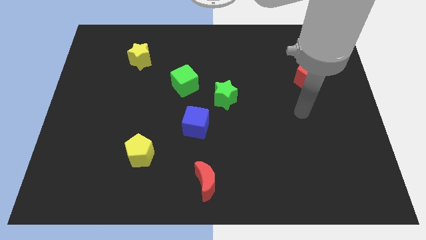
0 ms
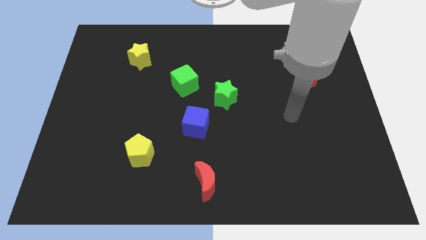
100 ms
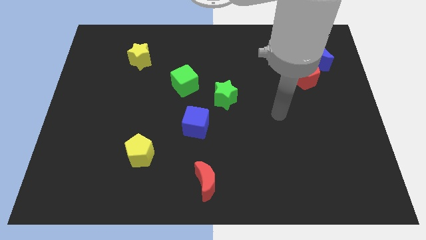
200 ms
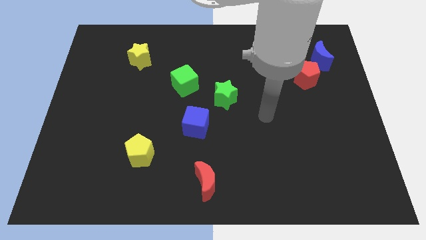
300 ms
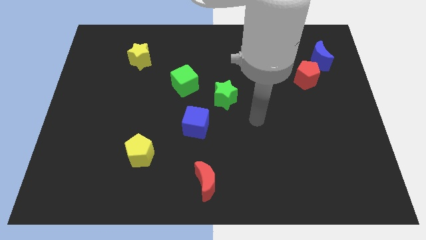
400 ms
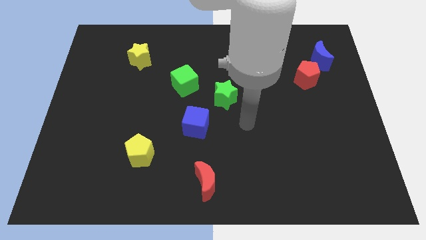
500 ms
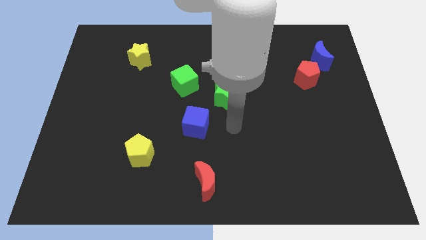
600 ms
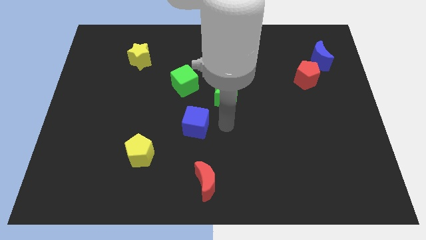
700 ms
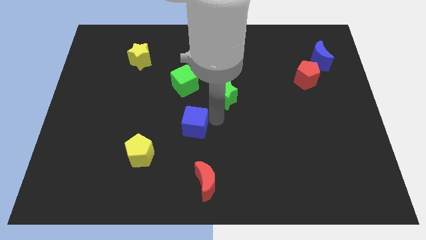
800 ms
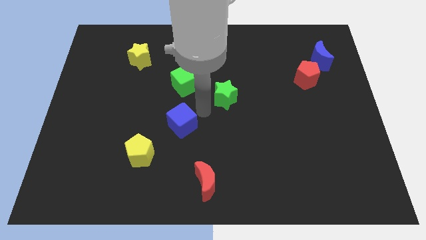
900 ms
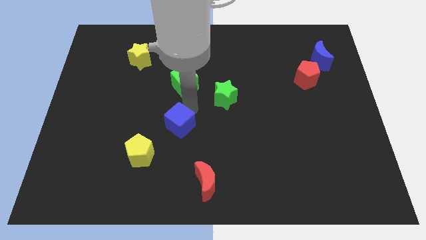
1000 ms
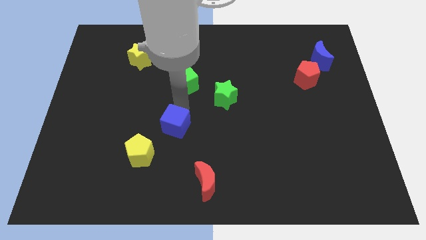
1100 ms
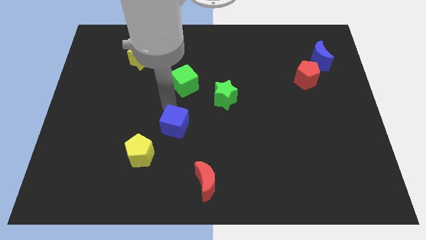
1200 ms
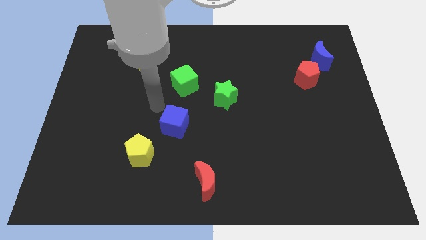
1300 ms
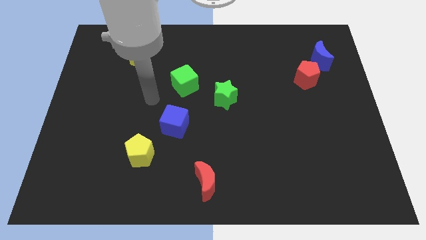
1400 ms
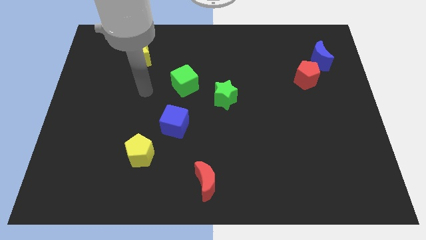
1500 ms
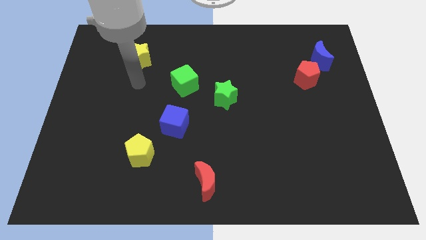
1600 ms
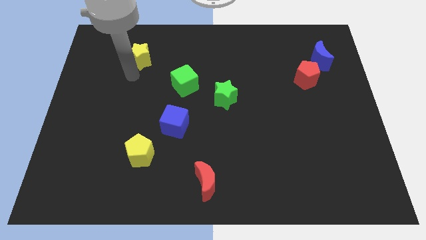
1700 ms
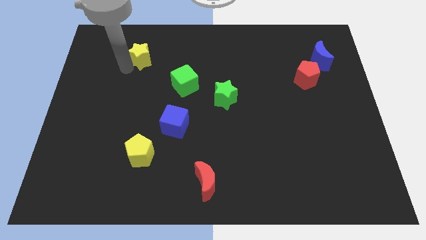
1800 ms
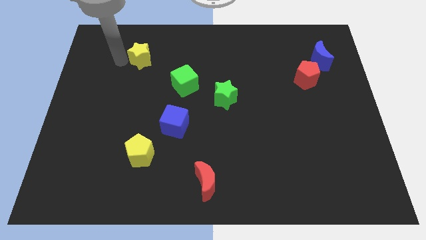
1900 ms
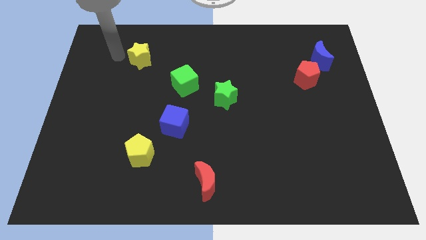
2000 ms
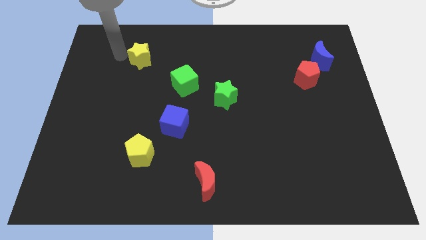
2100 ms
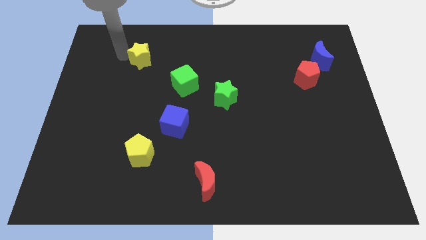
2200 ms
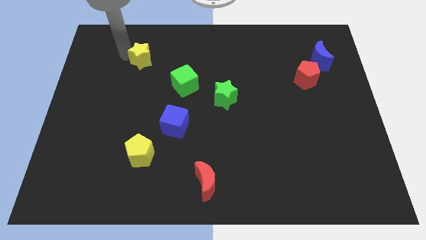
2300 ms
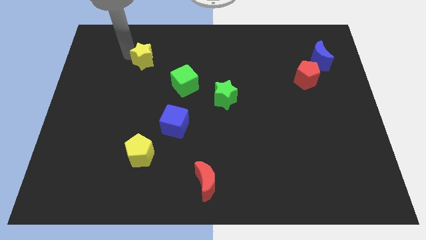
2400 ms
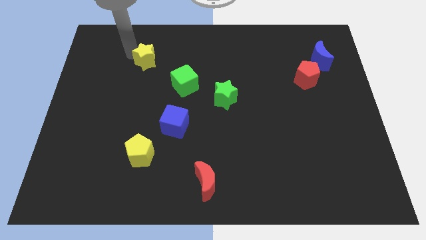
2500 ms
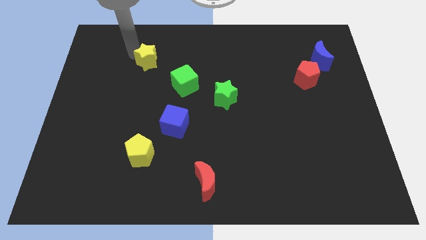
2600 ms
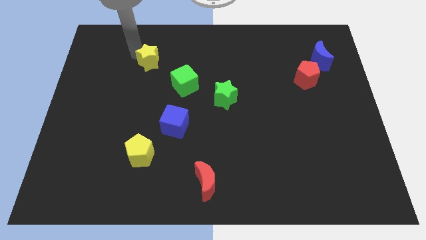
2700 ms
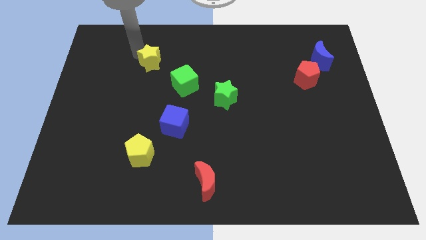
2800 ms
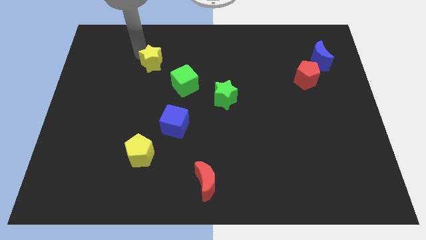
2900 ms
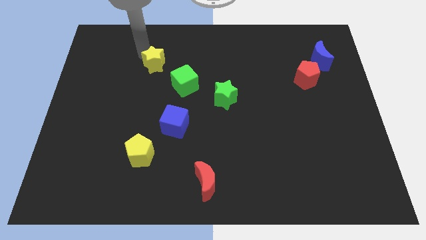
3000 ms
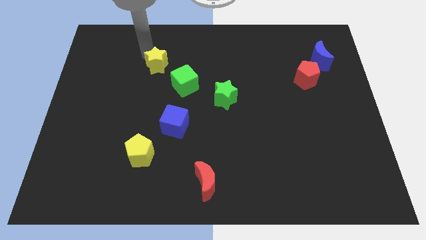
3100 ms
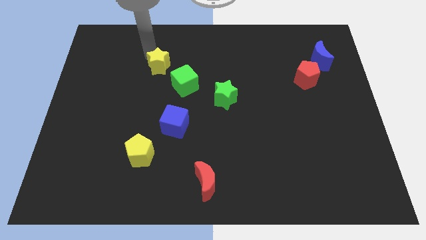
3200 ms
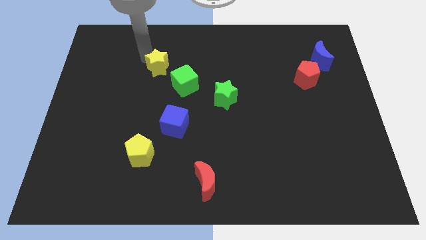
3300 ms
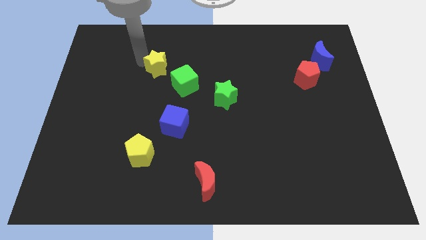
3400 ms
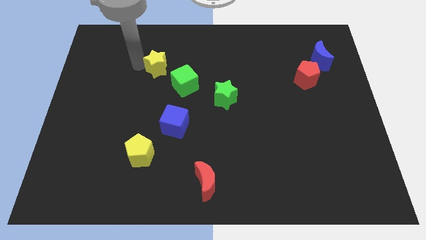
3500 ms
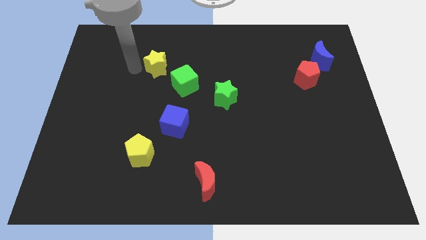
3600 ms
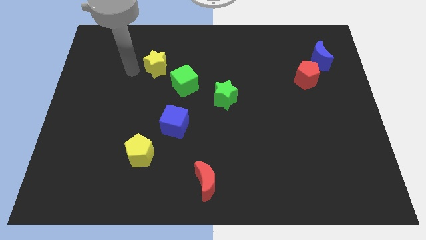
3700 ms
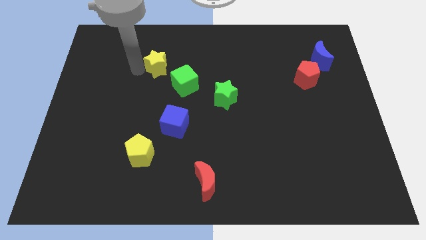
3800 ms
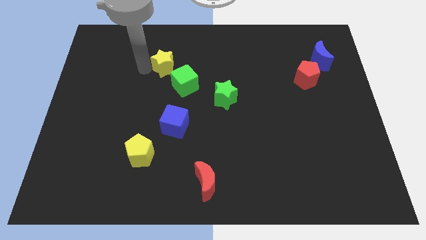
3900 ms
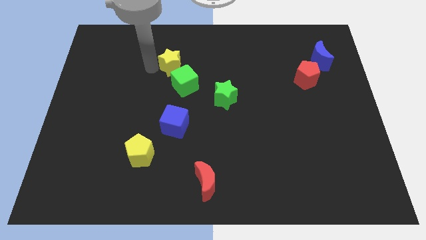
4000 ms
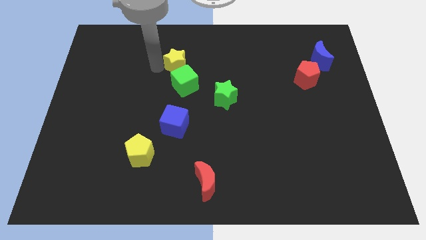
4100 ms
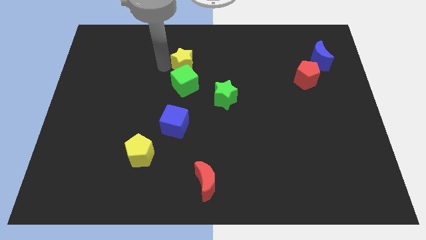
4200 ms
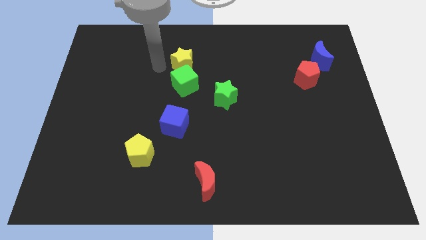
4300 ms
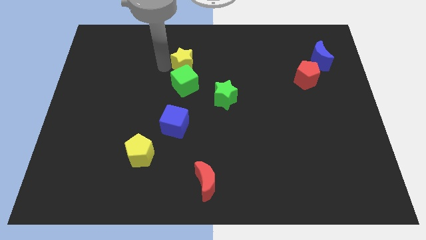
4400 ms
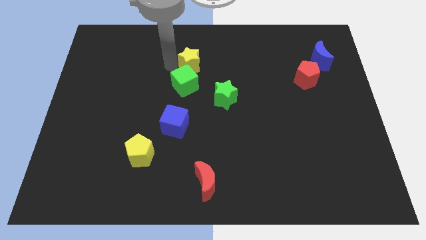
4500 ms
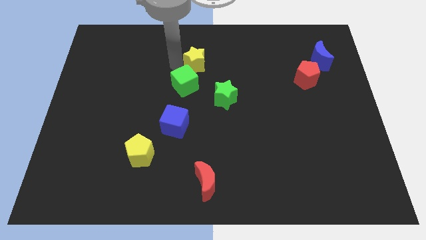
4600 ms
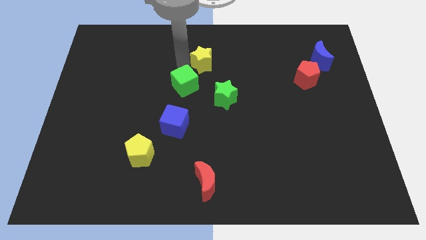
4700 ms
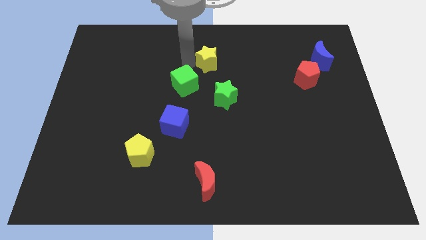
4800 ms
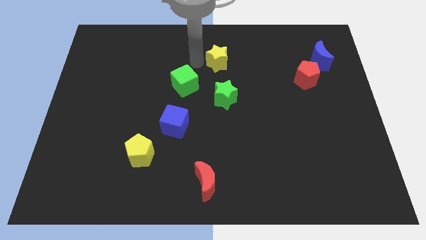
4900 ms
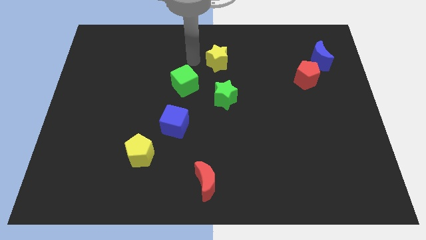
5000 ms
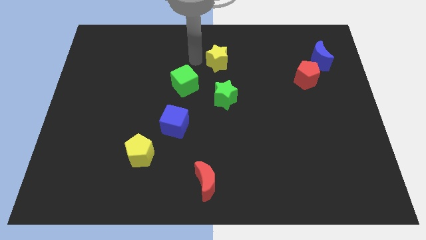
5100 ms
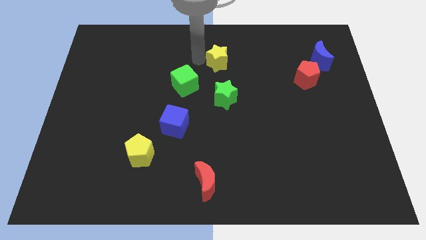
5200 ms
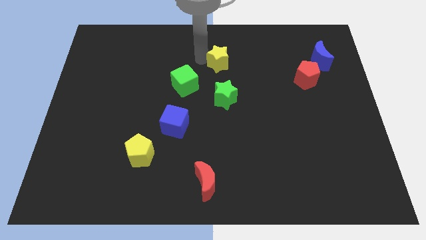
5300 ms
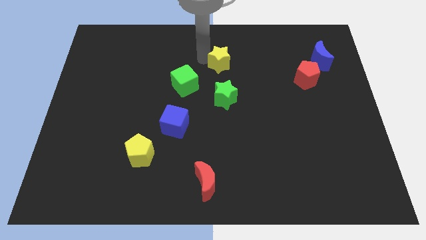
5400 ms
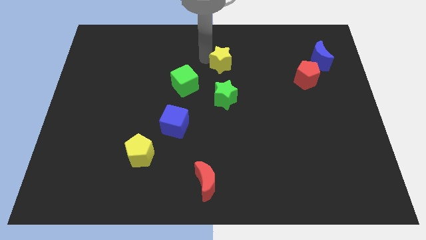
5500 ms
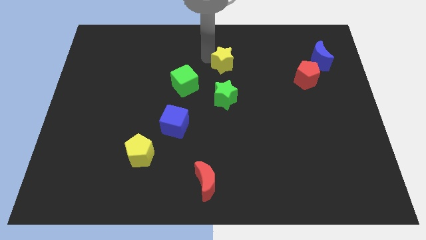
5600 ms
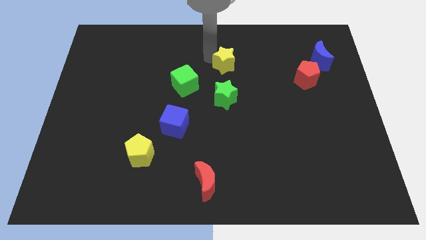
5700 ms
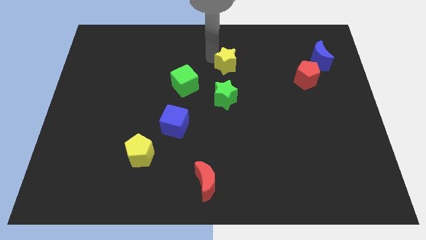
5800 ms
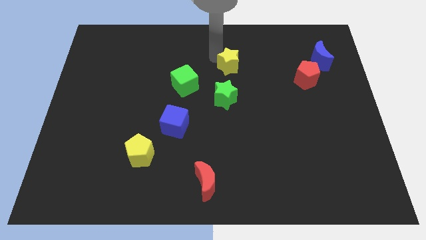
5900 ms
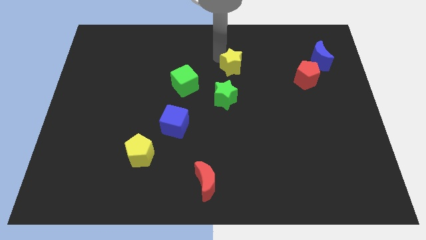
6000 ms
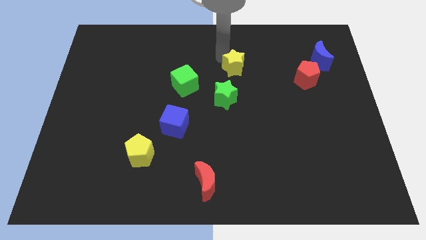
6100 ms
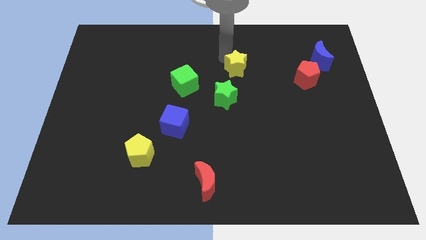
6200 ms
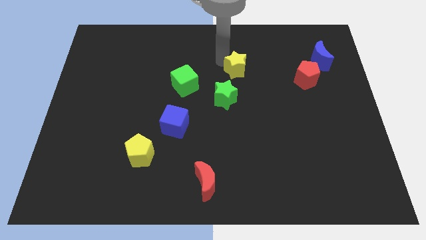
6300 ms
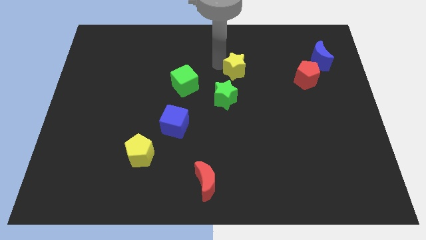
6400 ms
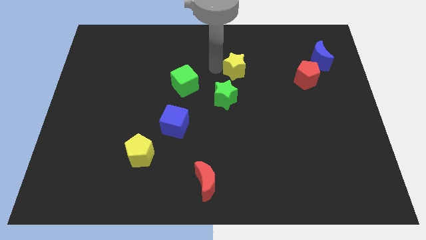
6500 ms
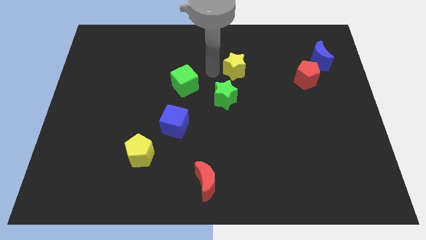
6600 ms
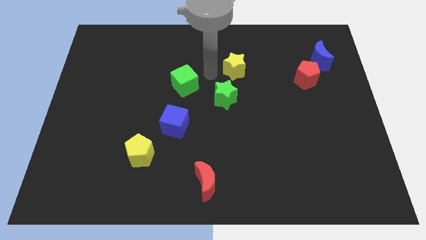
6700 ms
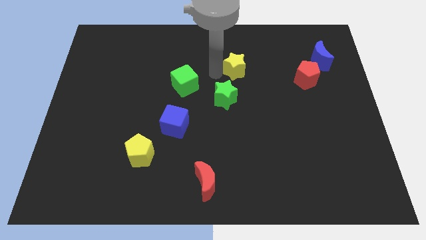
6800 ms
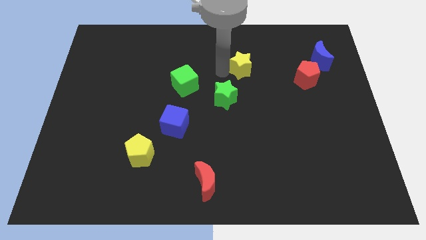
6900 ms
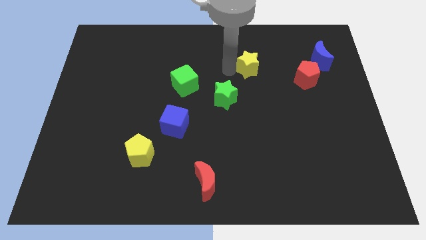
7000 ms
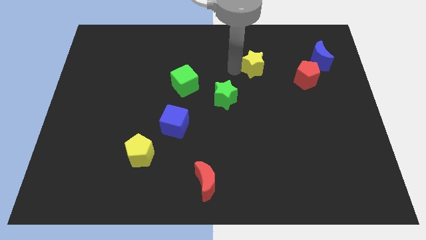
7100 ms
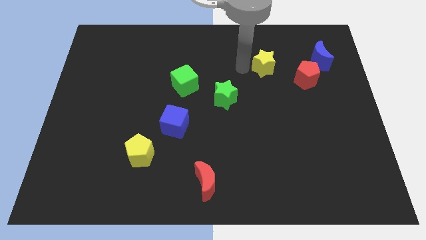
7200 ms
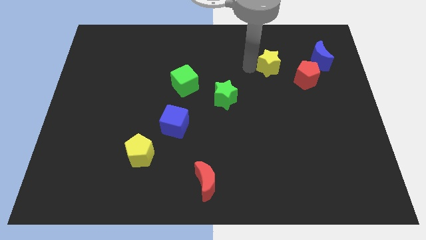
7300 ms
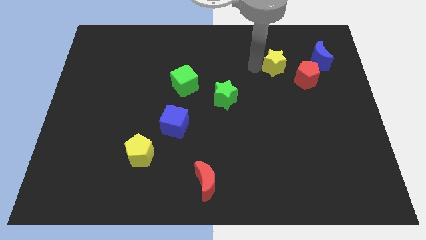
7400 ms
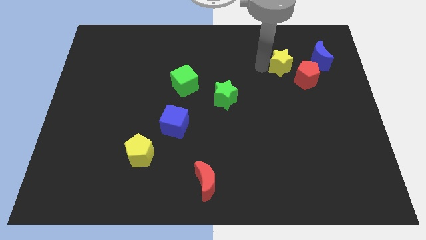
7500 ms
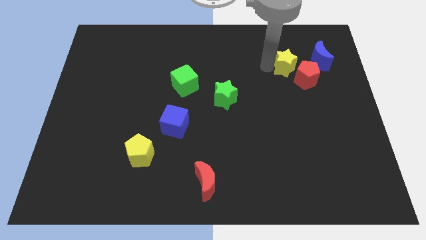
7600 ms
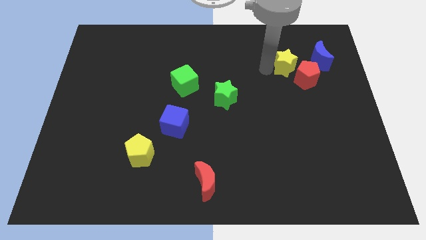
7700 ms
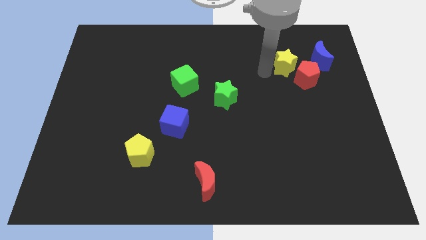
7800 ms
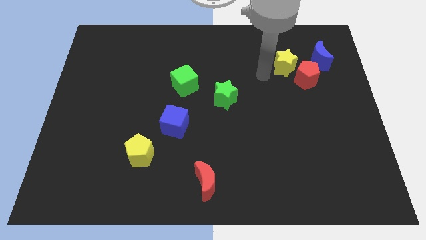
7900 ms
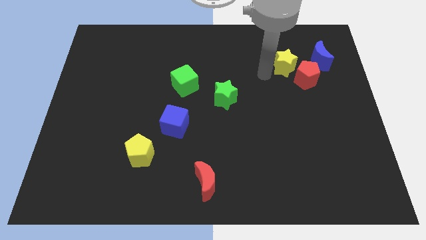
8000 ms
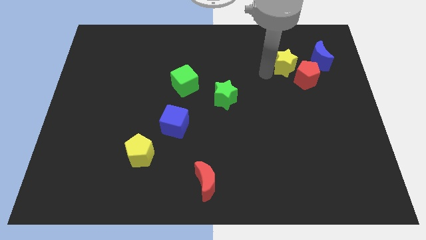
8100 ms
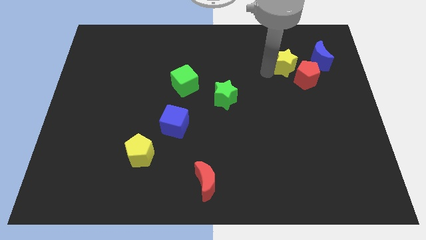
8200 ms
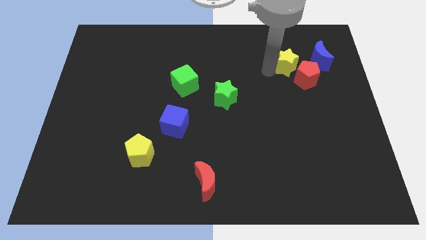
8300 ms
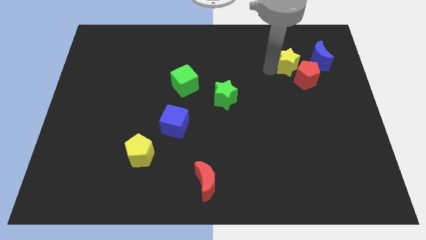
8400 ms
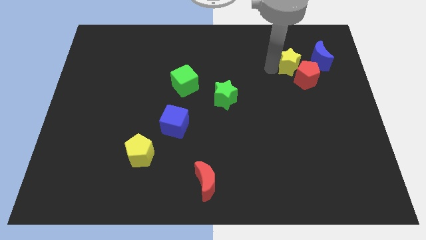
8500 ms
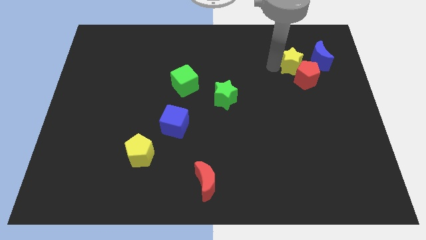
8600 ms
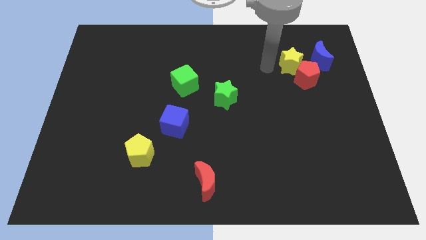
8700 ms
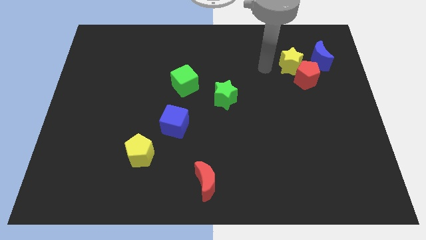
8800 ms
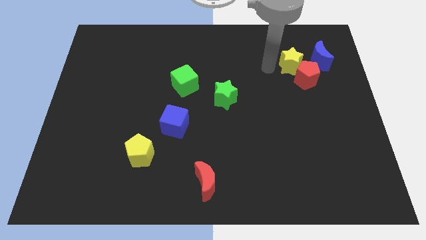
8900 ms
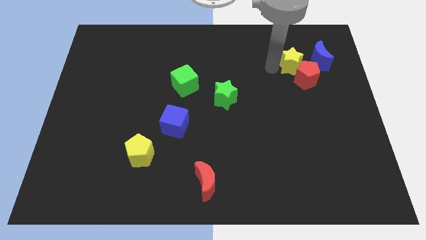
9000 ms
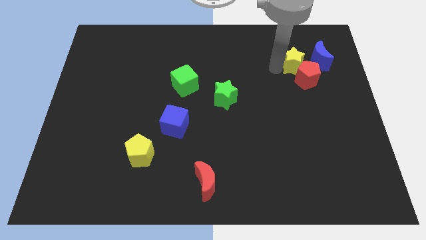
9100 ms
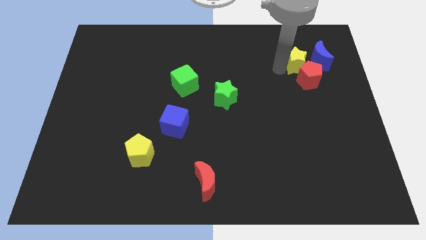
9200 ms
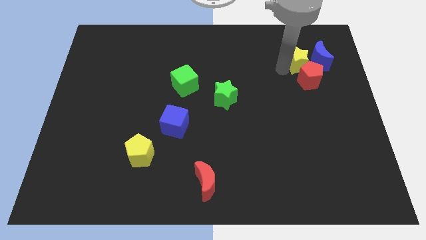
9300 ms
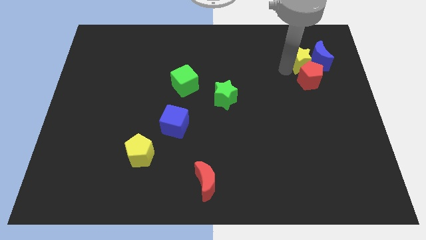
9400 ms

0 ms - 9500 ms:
move the yellow star next to the blue moon
